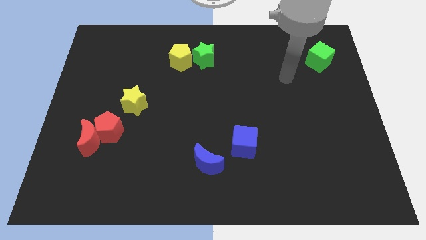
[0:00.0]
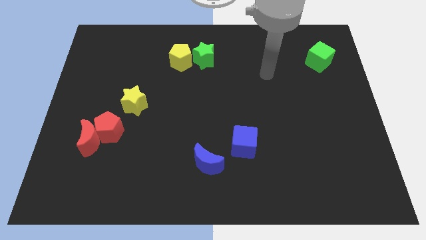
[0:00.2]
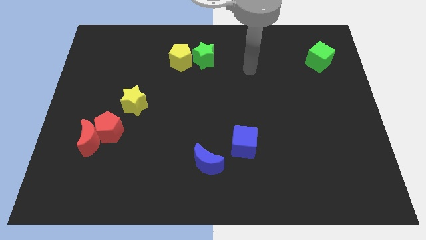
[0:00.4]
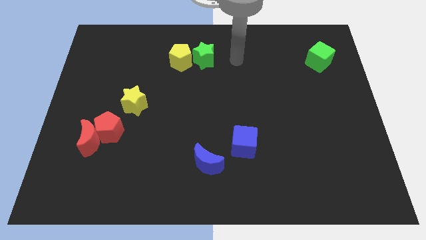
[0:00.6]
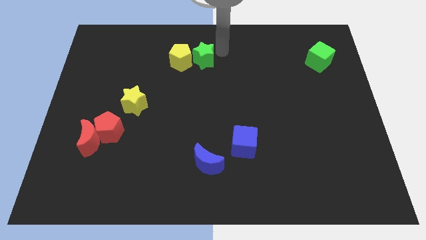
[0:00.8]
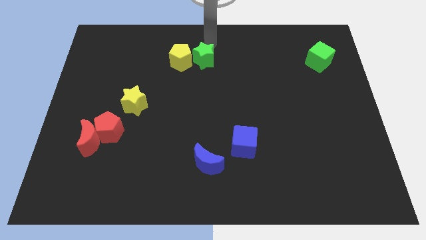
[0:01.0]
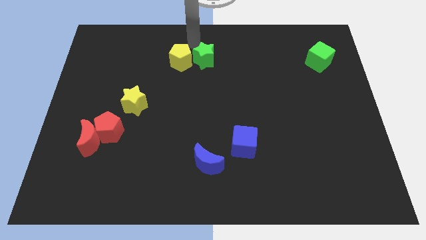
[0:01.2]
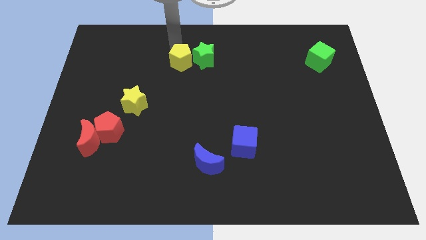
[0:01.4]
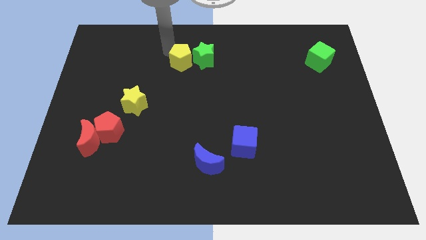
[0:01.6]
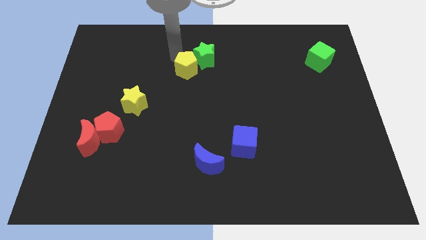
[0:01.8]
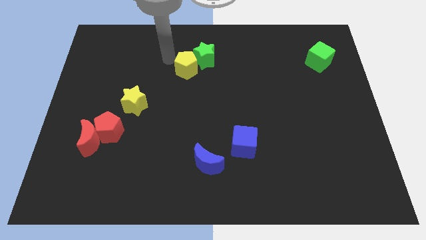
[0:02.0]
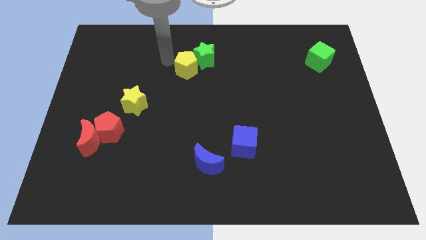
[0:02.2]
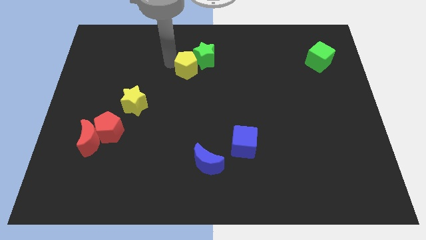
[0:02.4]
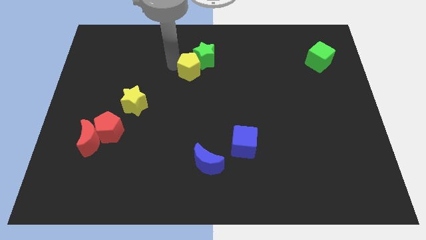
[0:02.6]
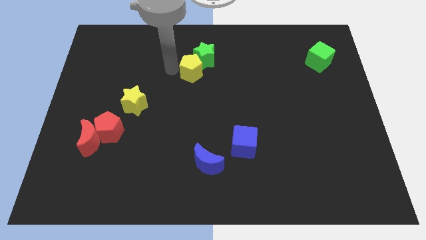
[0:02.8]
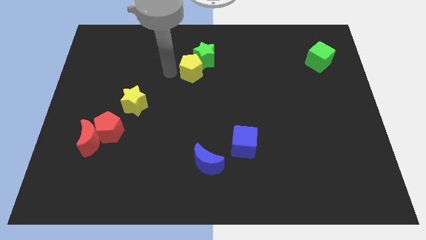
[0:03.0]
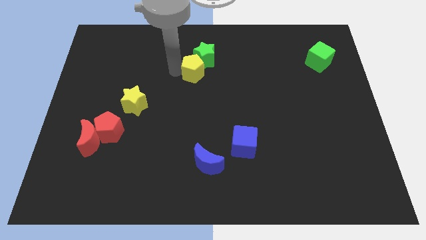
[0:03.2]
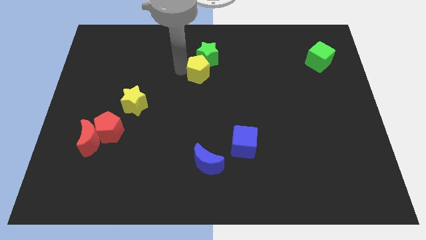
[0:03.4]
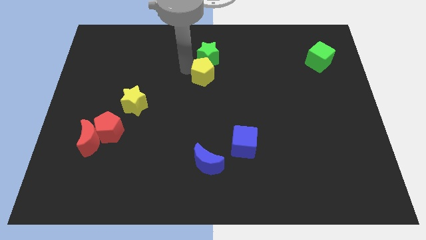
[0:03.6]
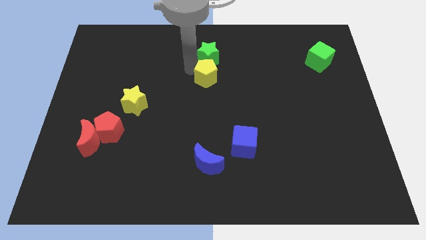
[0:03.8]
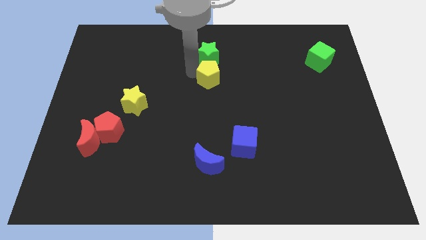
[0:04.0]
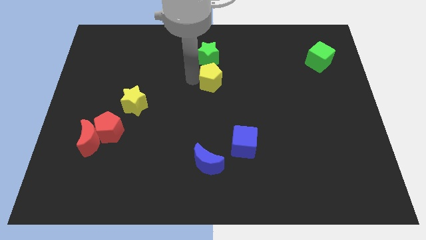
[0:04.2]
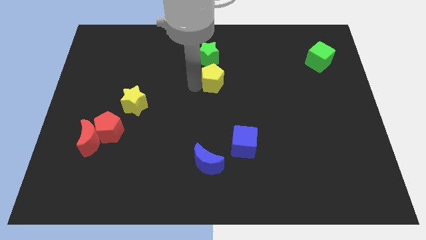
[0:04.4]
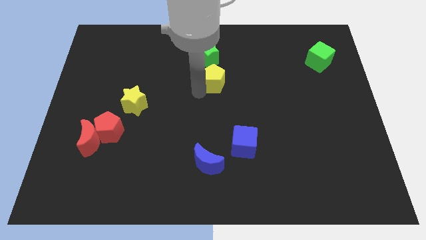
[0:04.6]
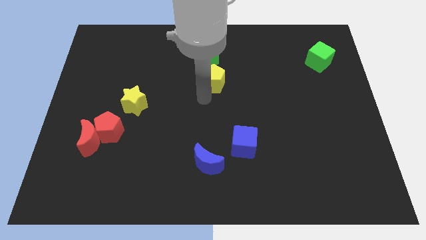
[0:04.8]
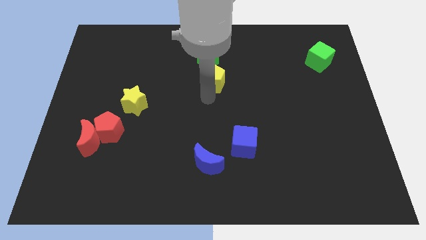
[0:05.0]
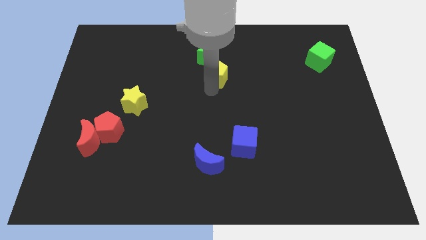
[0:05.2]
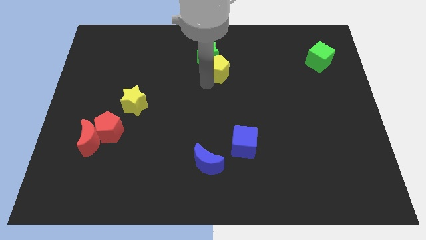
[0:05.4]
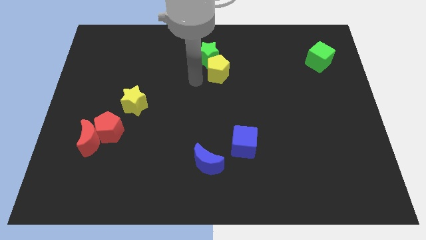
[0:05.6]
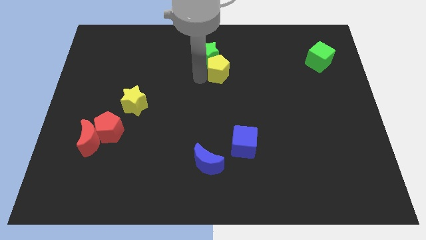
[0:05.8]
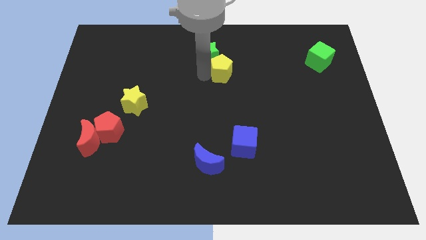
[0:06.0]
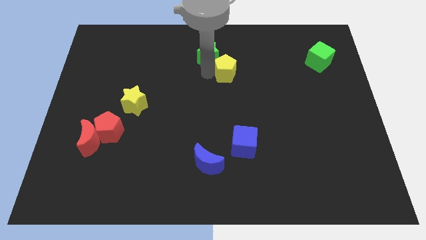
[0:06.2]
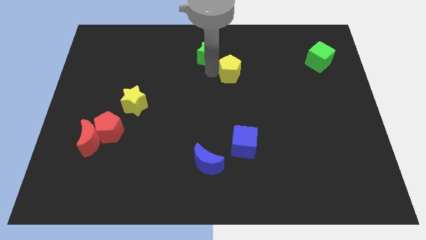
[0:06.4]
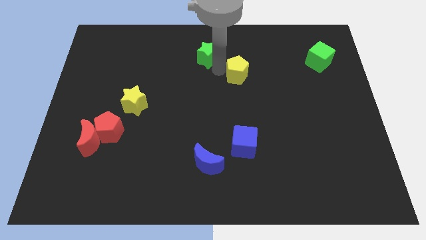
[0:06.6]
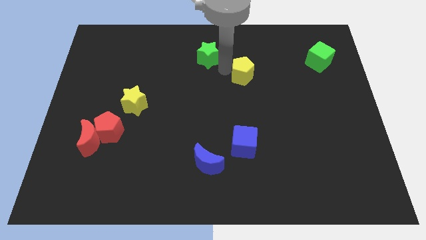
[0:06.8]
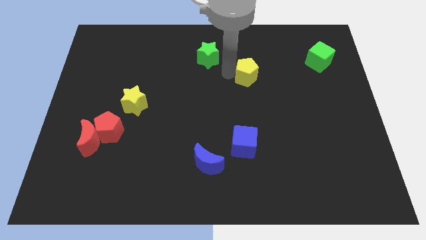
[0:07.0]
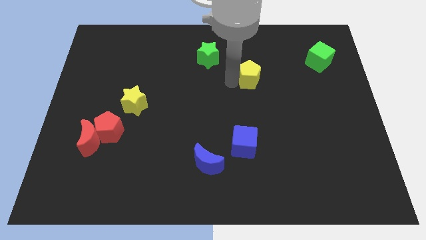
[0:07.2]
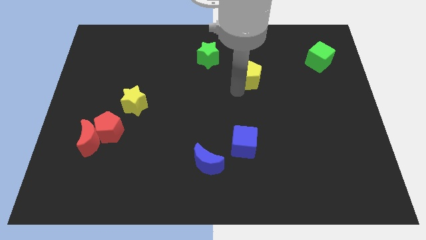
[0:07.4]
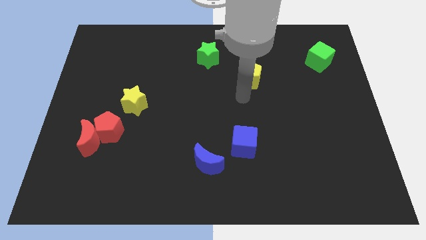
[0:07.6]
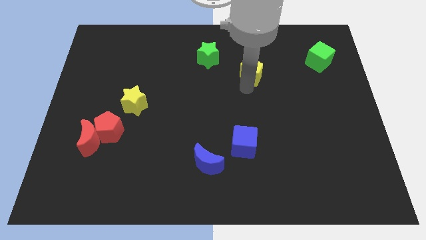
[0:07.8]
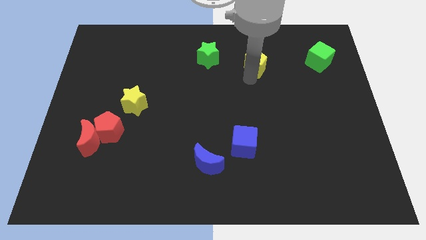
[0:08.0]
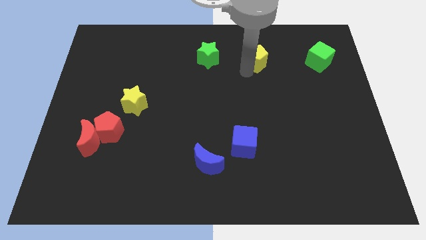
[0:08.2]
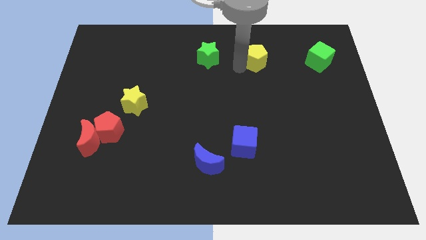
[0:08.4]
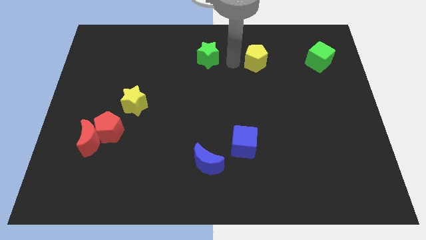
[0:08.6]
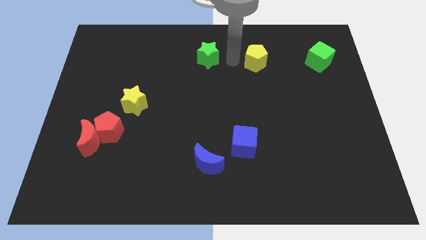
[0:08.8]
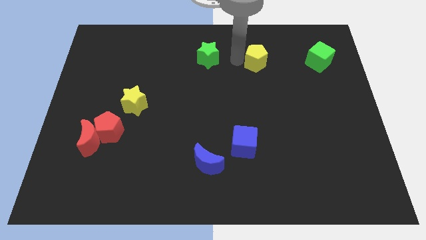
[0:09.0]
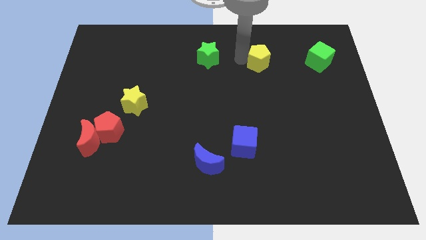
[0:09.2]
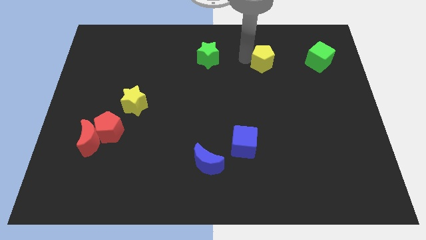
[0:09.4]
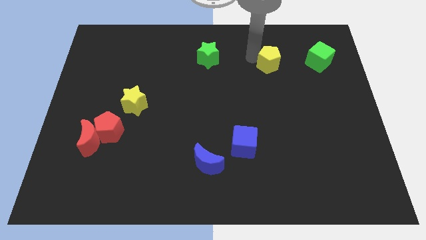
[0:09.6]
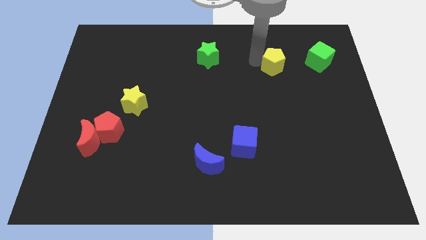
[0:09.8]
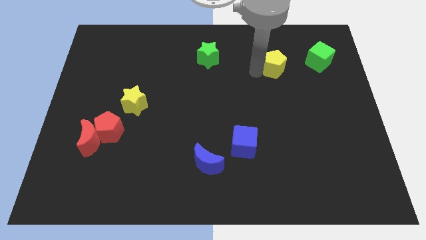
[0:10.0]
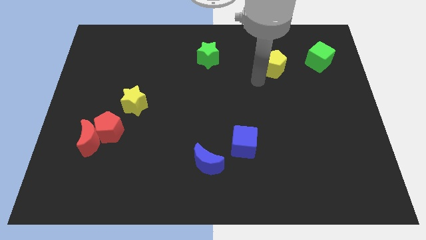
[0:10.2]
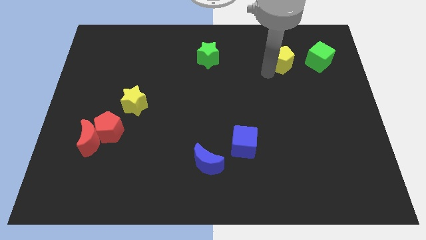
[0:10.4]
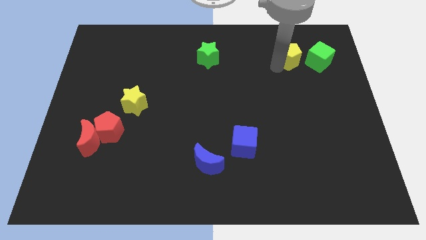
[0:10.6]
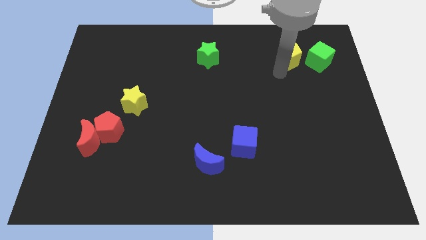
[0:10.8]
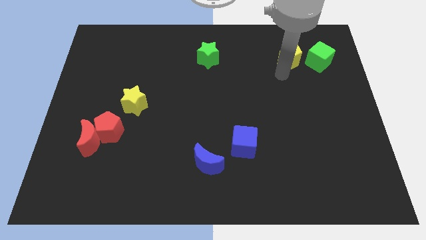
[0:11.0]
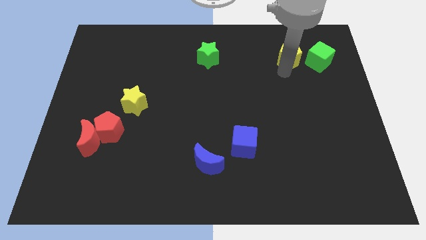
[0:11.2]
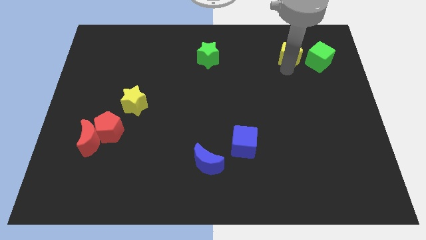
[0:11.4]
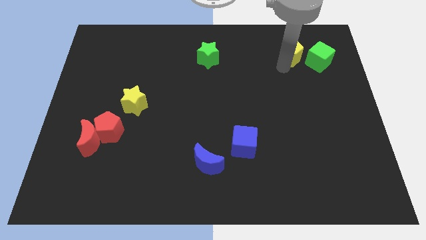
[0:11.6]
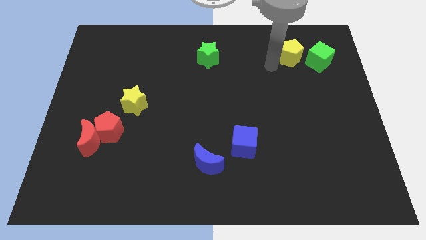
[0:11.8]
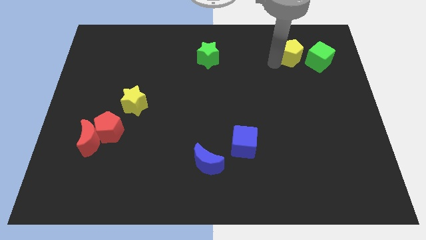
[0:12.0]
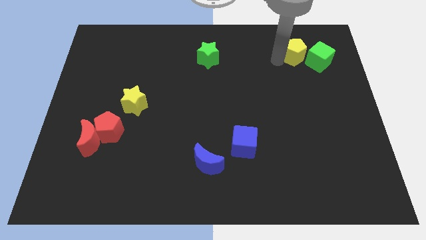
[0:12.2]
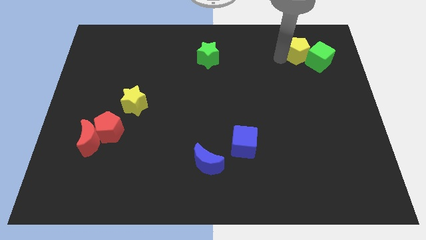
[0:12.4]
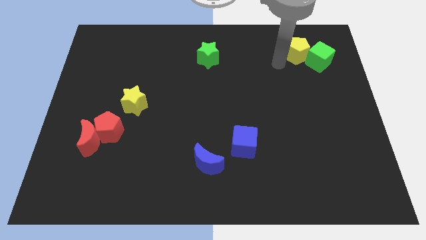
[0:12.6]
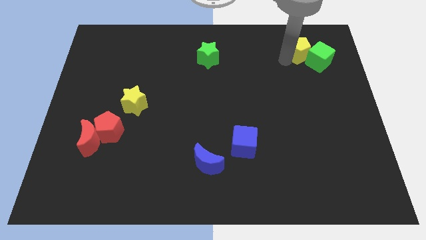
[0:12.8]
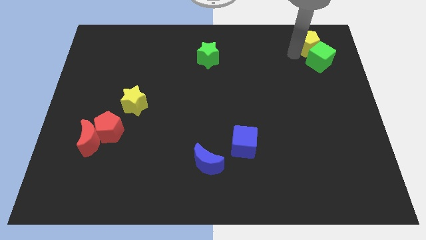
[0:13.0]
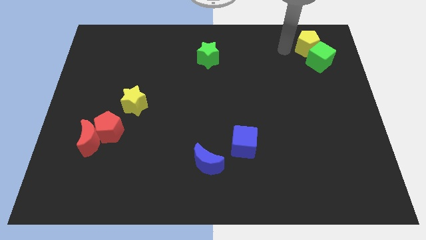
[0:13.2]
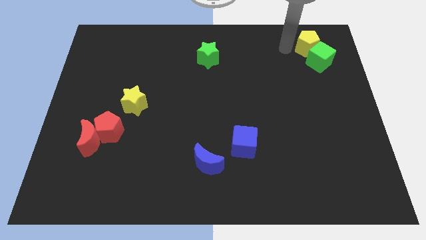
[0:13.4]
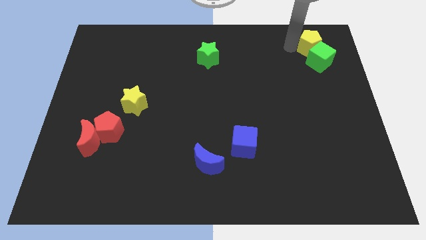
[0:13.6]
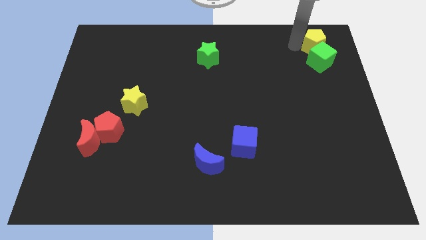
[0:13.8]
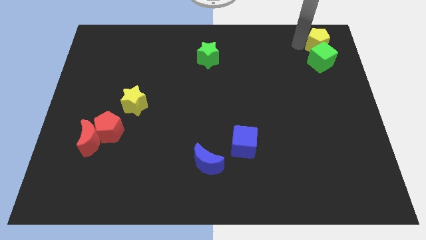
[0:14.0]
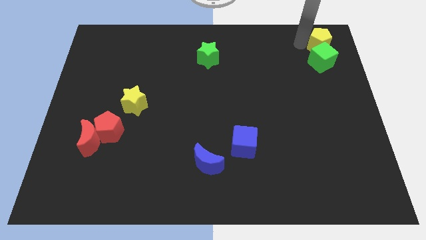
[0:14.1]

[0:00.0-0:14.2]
move the yellow pentagon to the top right

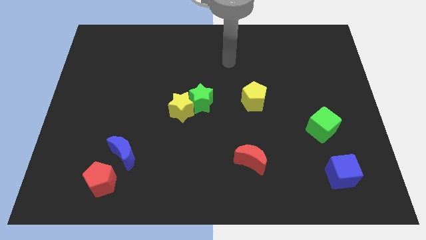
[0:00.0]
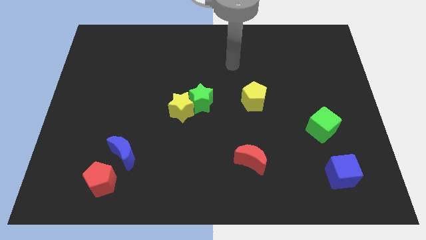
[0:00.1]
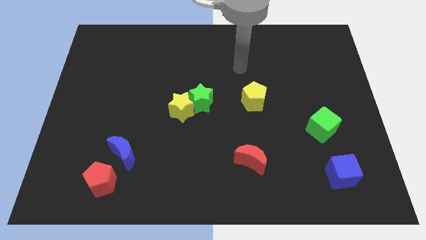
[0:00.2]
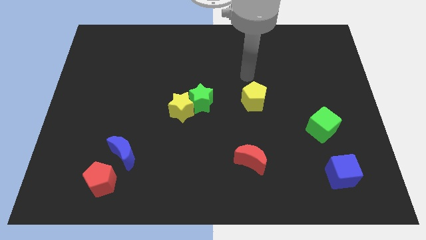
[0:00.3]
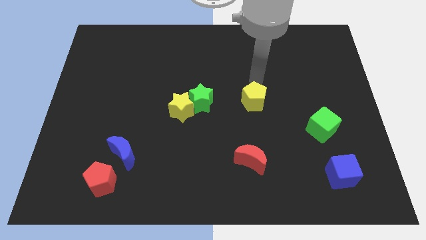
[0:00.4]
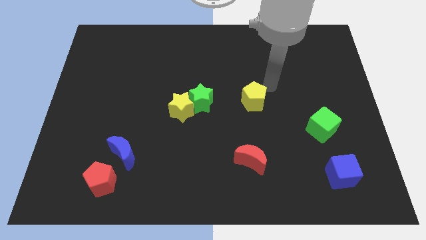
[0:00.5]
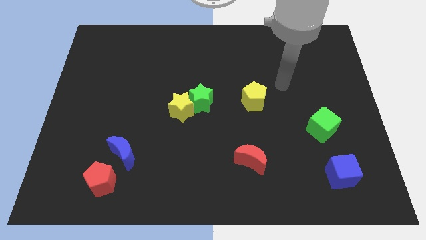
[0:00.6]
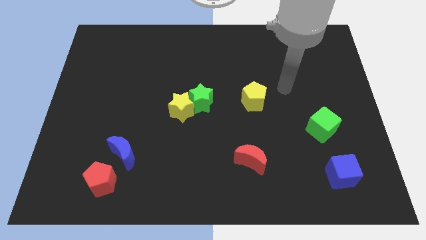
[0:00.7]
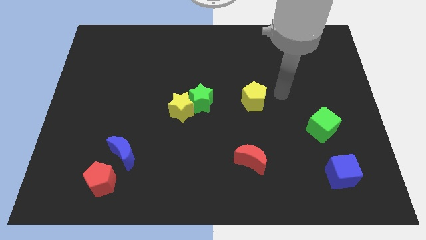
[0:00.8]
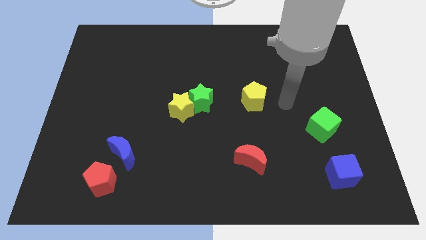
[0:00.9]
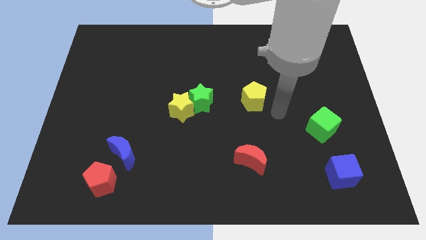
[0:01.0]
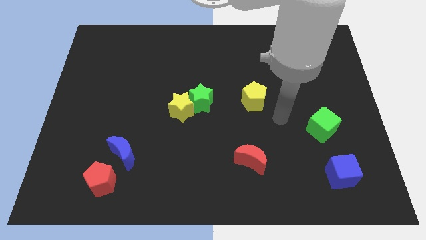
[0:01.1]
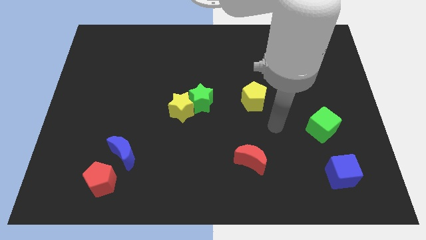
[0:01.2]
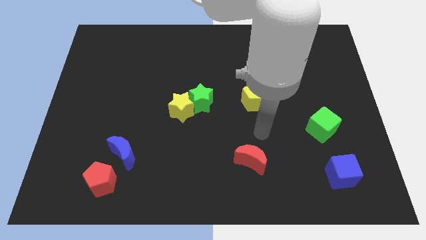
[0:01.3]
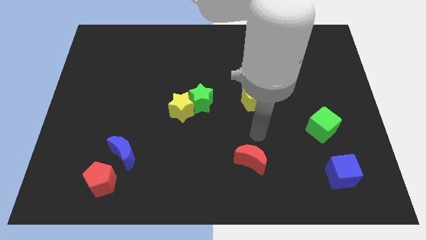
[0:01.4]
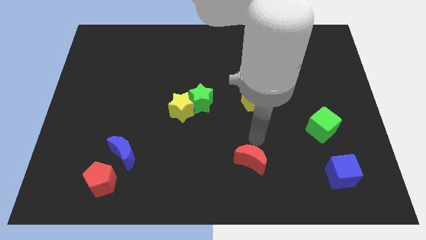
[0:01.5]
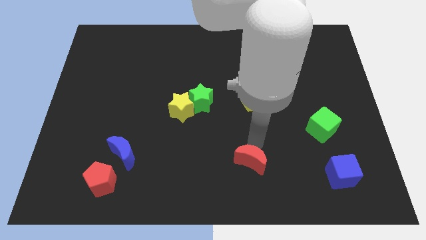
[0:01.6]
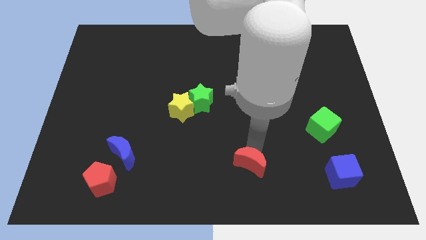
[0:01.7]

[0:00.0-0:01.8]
push the red moon to the bottom
